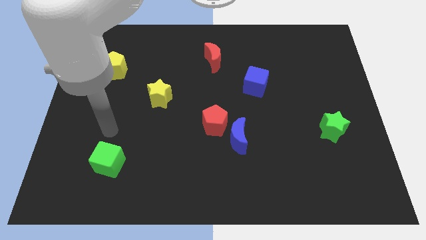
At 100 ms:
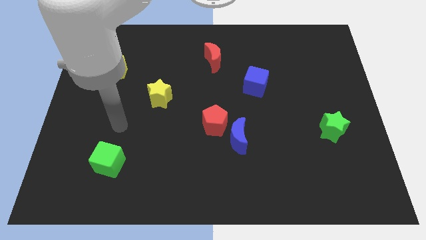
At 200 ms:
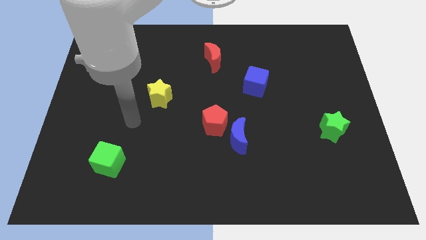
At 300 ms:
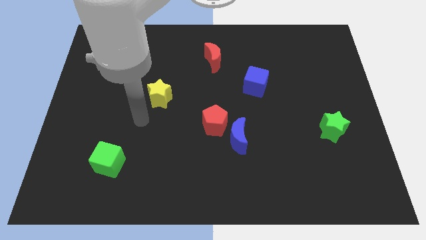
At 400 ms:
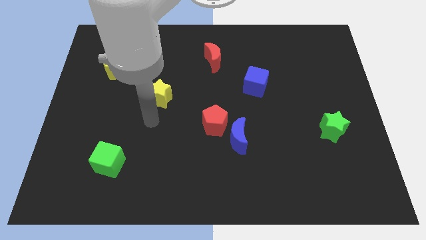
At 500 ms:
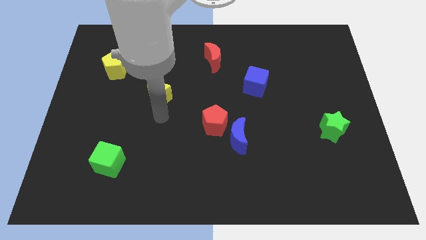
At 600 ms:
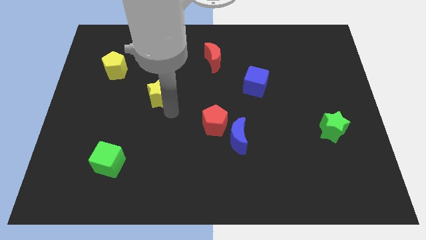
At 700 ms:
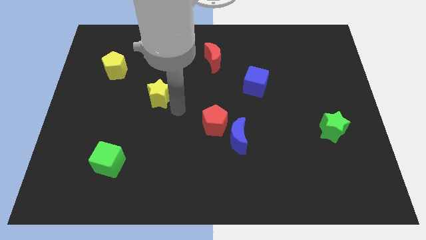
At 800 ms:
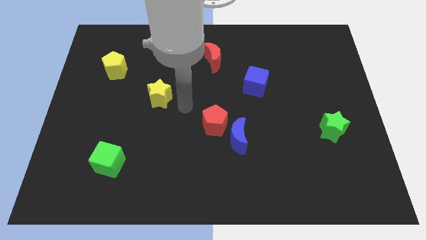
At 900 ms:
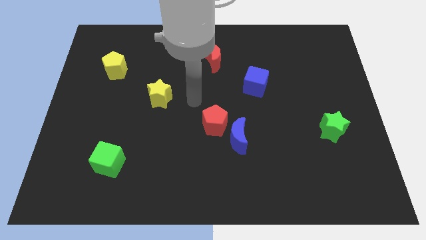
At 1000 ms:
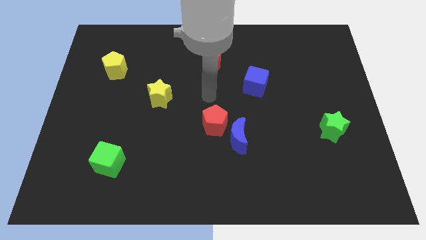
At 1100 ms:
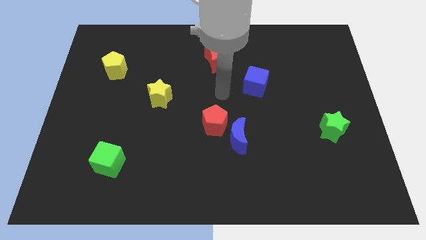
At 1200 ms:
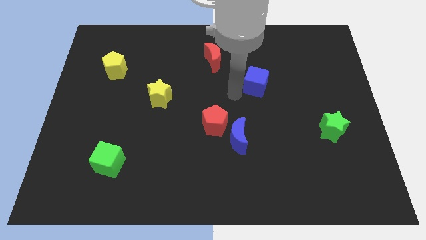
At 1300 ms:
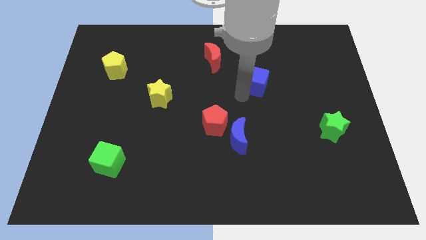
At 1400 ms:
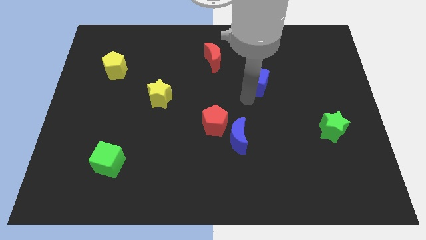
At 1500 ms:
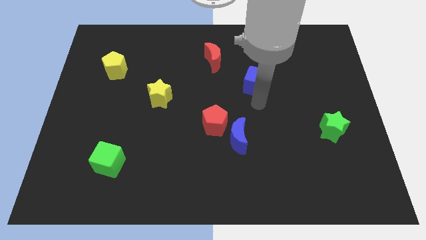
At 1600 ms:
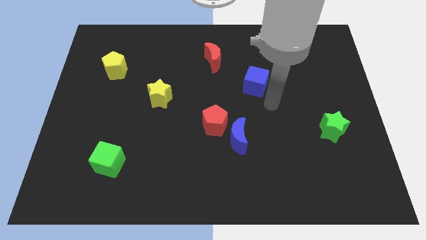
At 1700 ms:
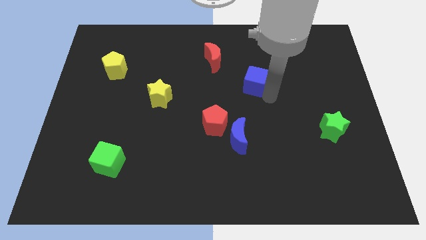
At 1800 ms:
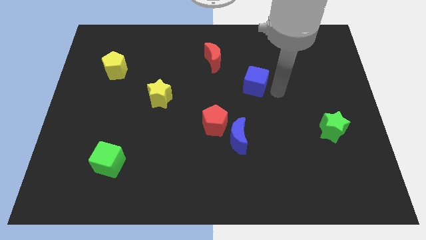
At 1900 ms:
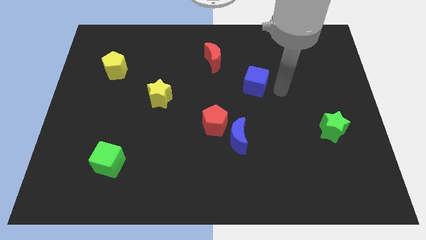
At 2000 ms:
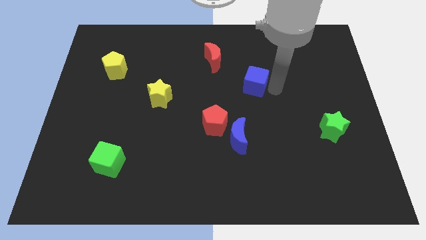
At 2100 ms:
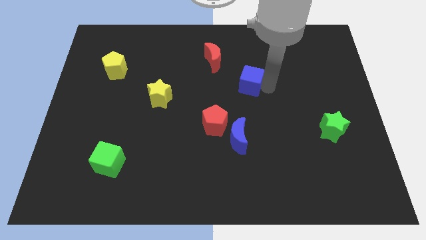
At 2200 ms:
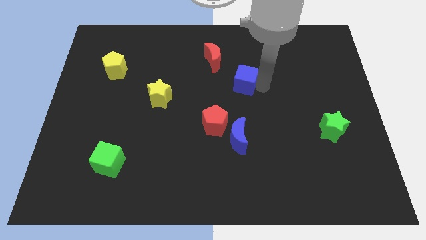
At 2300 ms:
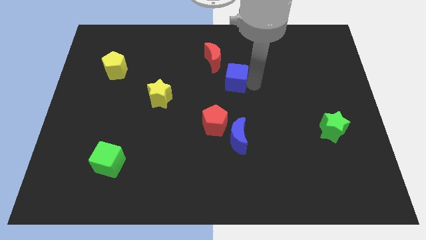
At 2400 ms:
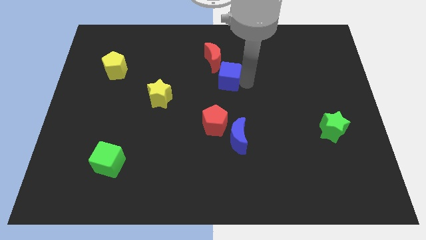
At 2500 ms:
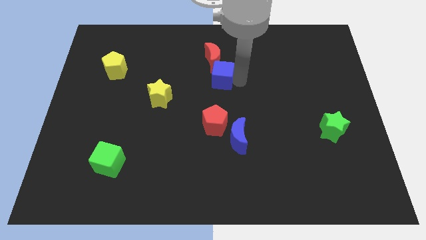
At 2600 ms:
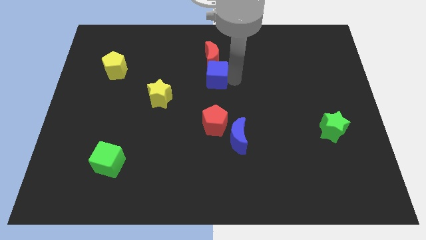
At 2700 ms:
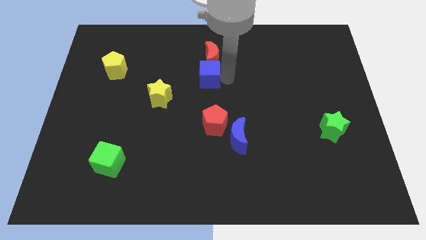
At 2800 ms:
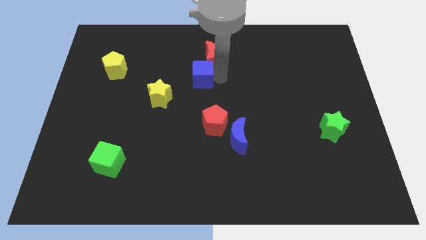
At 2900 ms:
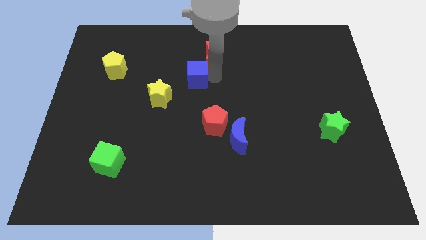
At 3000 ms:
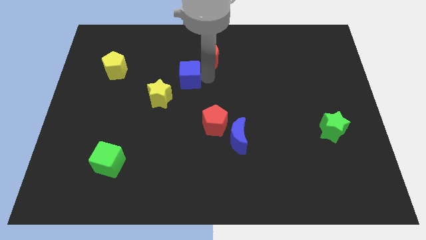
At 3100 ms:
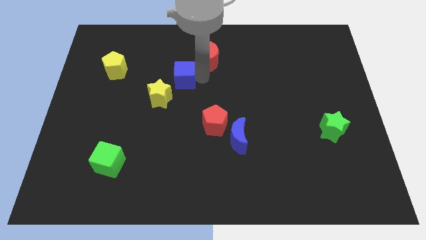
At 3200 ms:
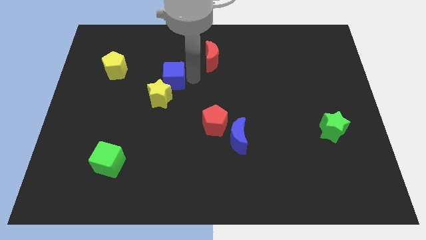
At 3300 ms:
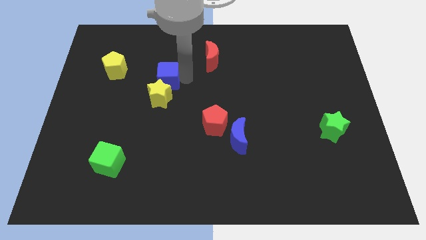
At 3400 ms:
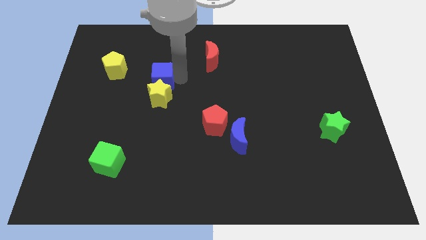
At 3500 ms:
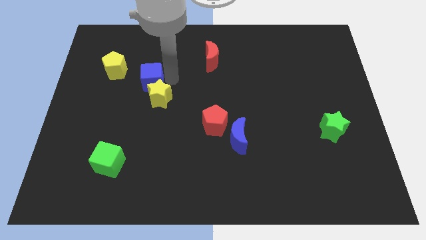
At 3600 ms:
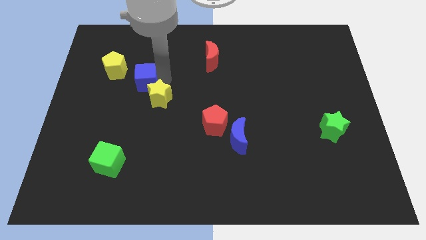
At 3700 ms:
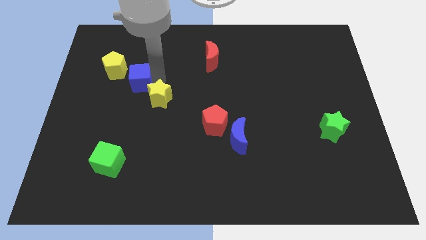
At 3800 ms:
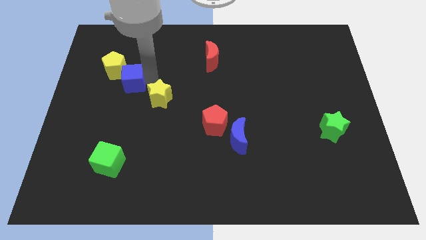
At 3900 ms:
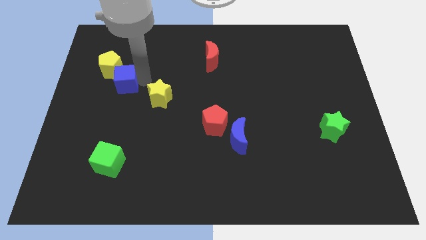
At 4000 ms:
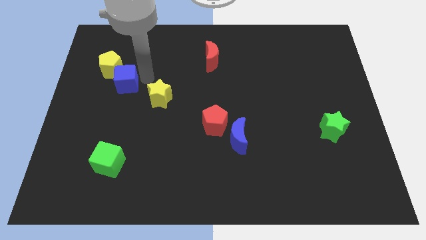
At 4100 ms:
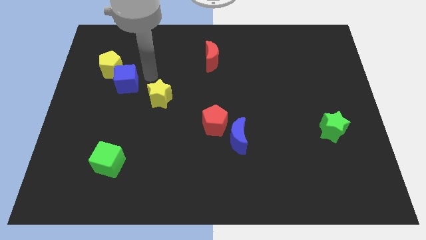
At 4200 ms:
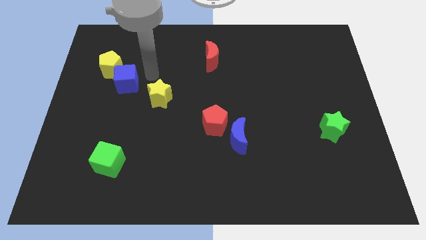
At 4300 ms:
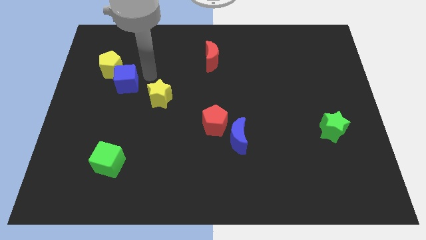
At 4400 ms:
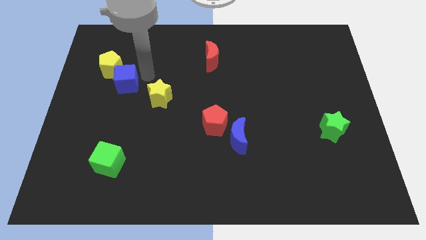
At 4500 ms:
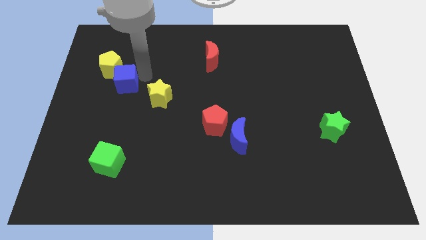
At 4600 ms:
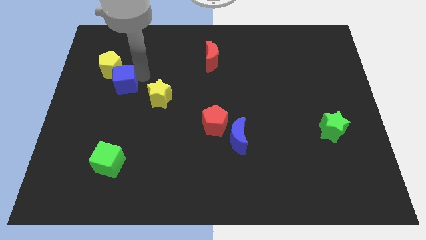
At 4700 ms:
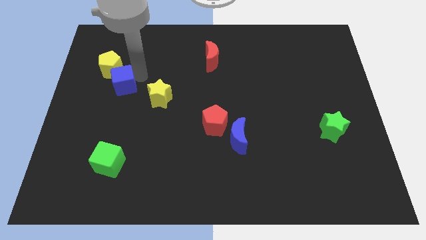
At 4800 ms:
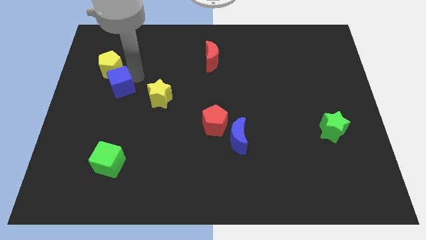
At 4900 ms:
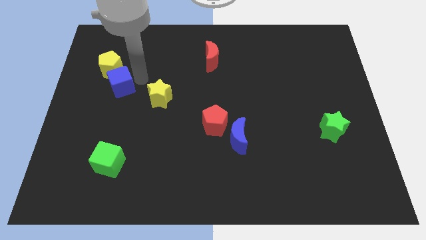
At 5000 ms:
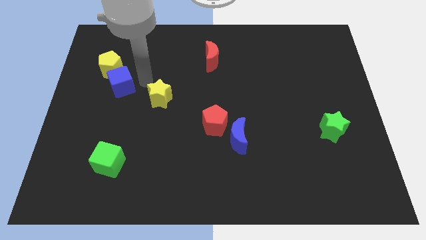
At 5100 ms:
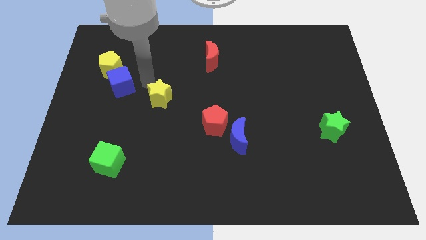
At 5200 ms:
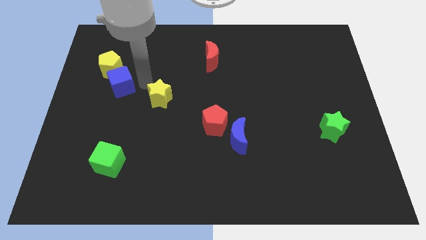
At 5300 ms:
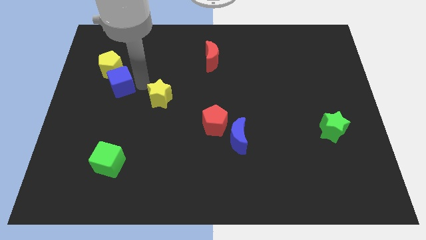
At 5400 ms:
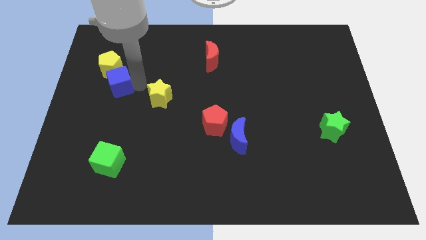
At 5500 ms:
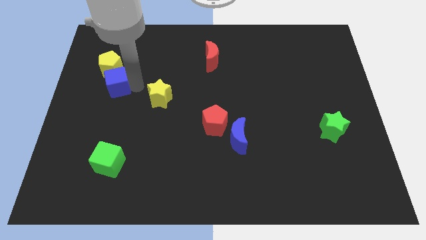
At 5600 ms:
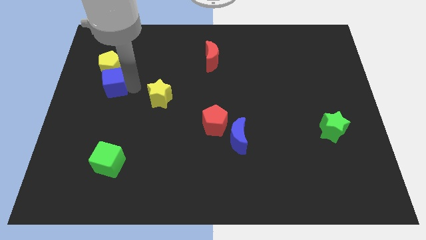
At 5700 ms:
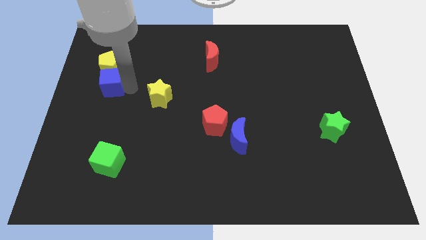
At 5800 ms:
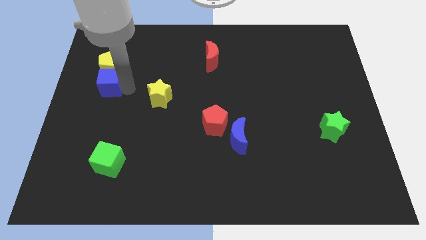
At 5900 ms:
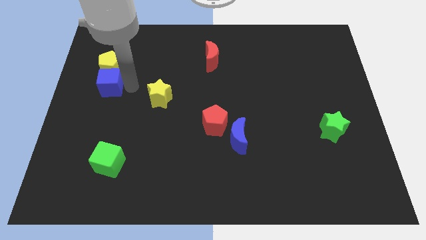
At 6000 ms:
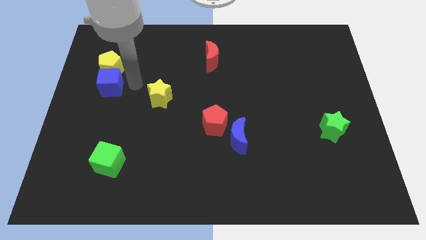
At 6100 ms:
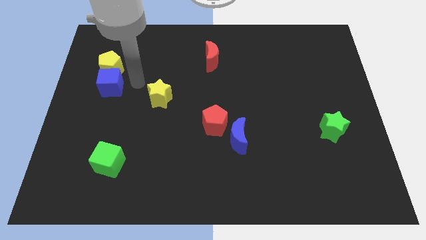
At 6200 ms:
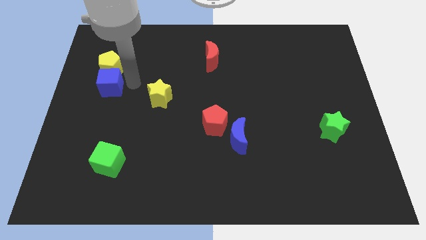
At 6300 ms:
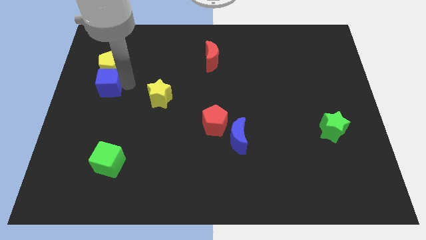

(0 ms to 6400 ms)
move the blue cube to the left side
